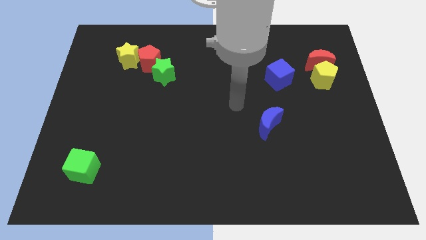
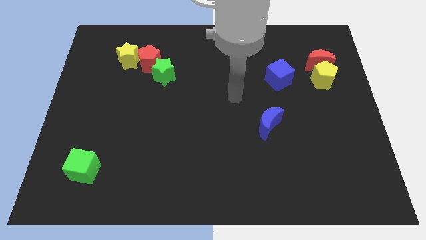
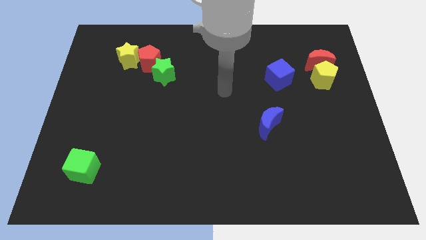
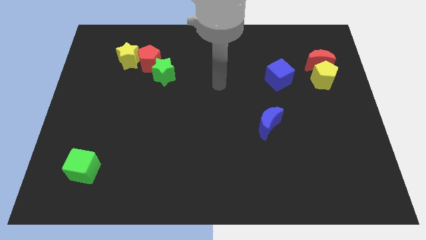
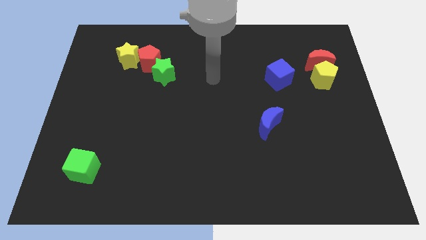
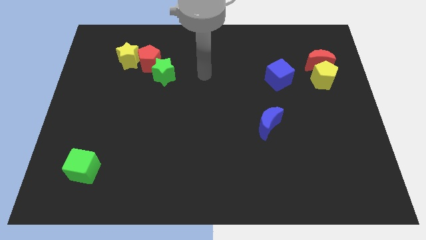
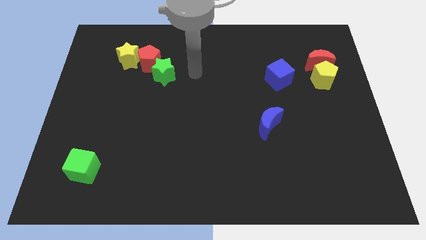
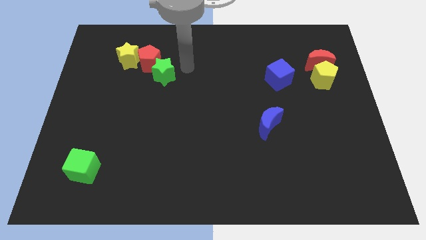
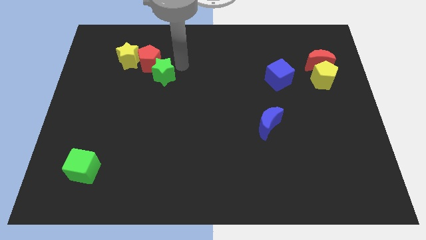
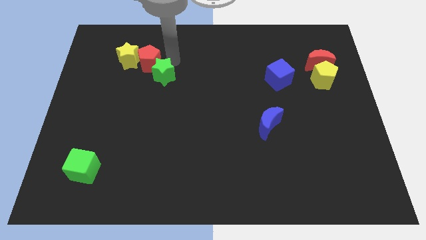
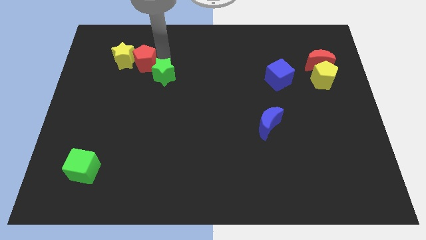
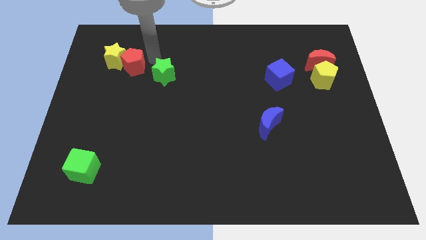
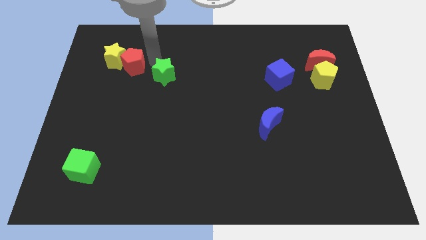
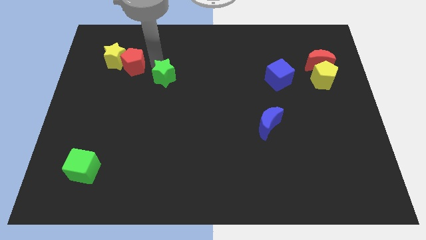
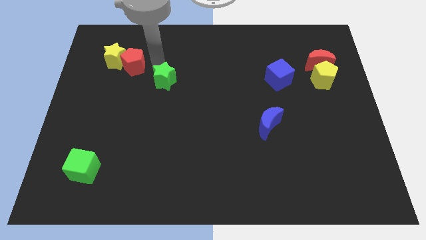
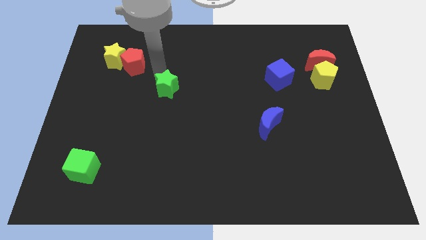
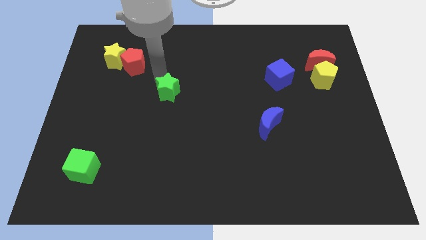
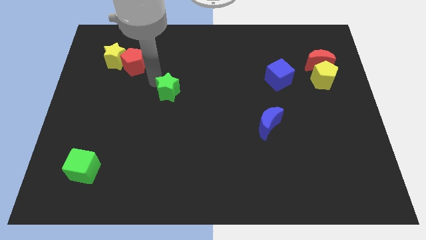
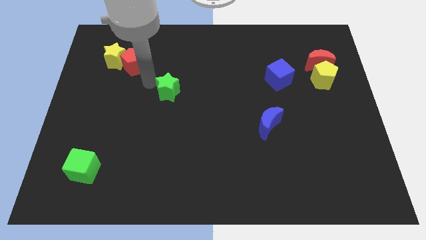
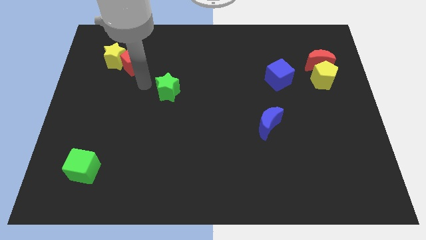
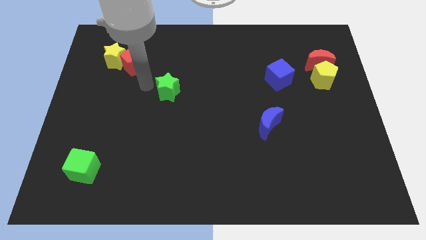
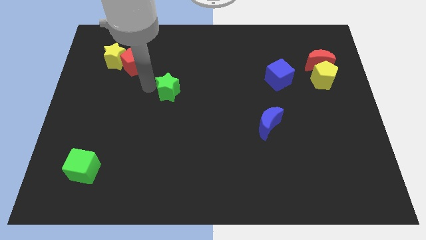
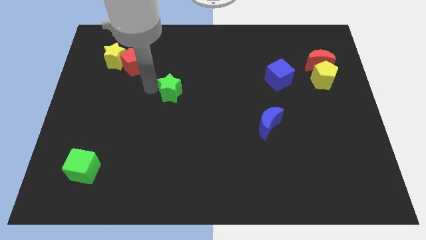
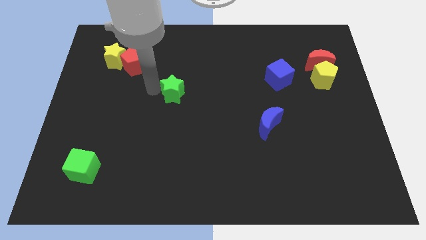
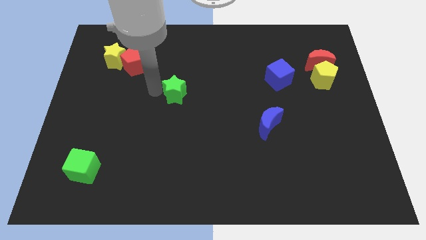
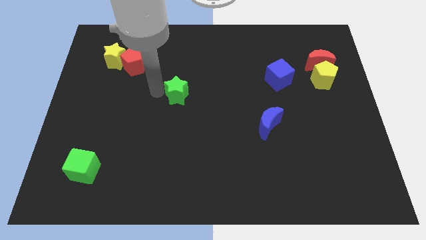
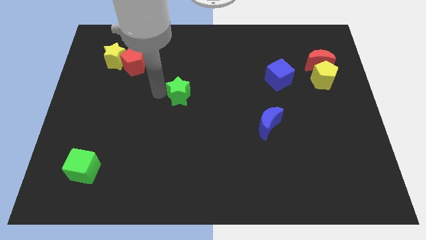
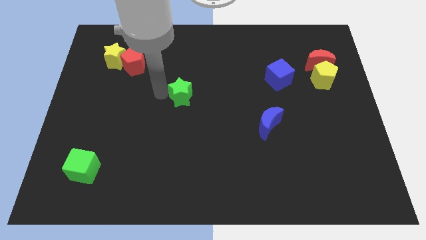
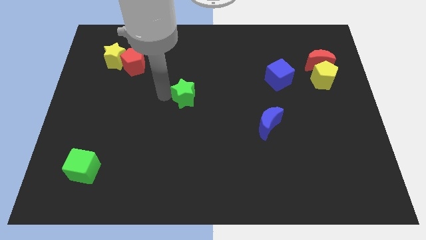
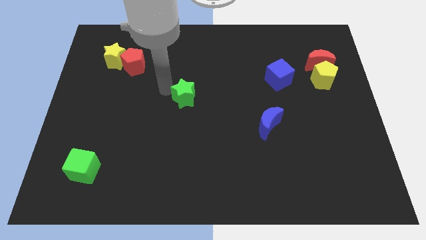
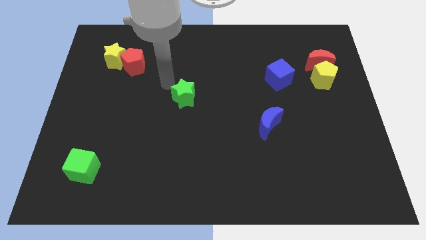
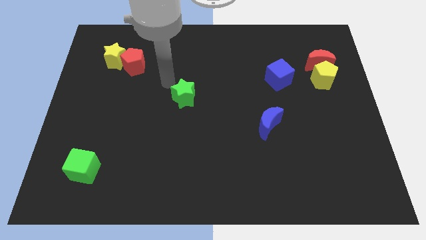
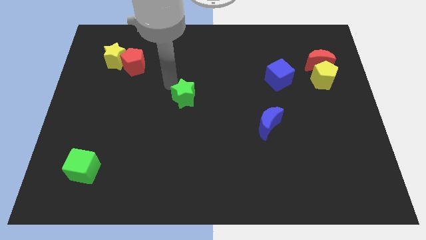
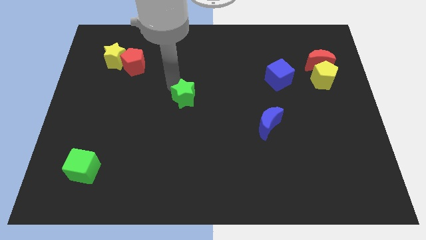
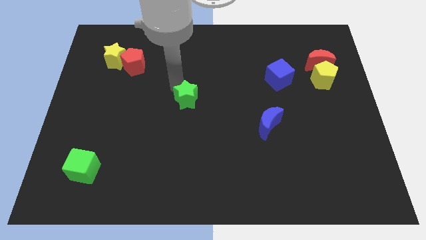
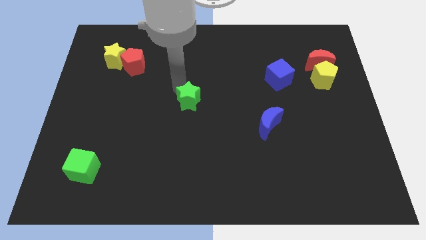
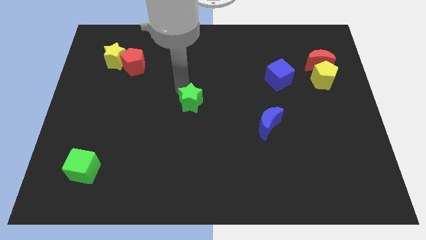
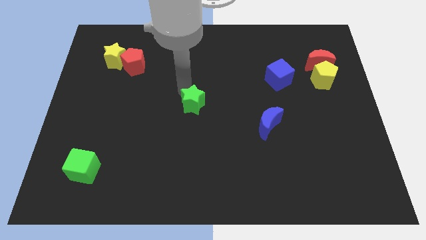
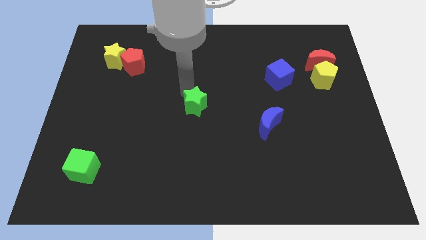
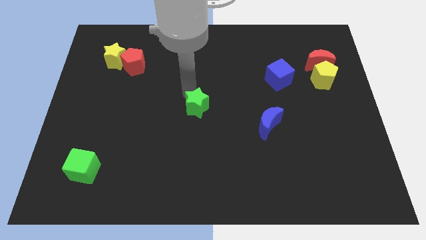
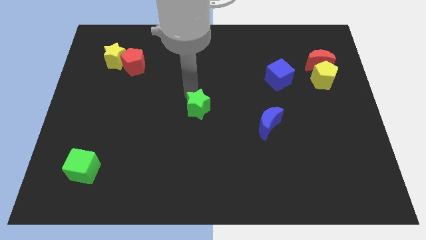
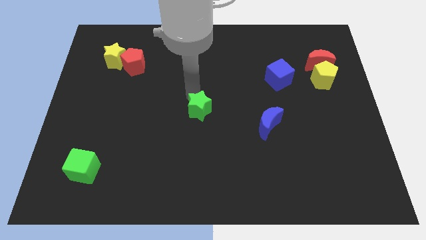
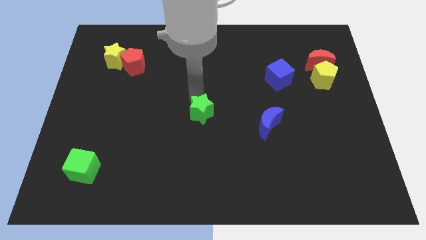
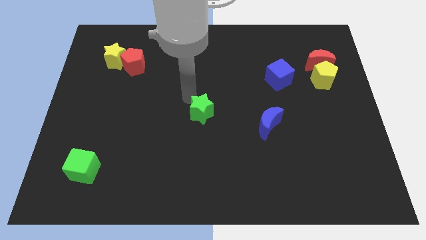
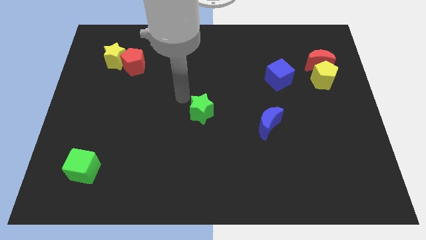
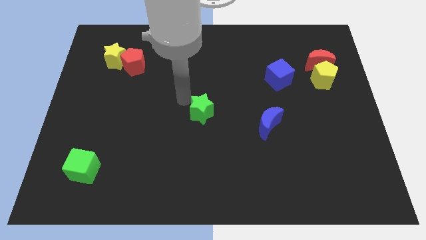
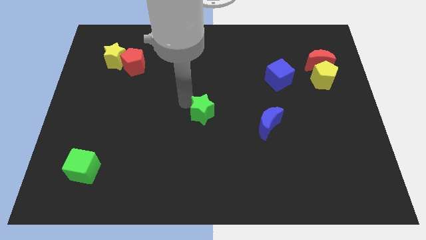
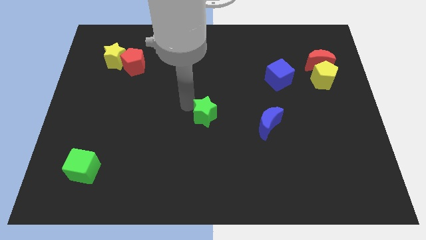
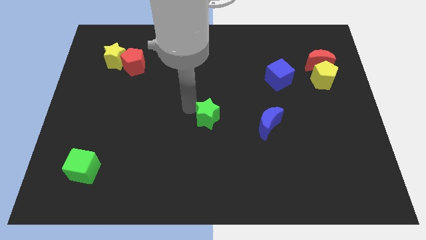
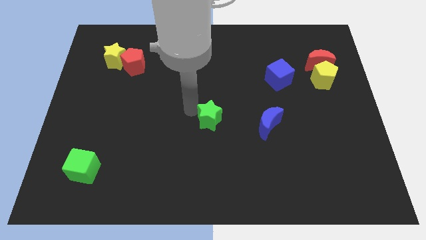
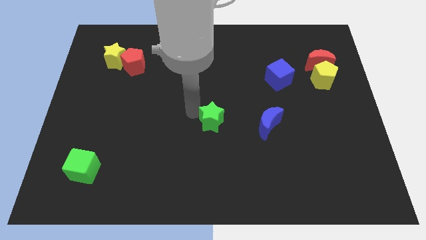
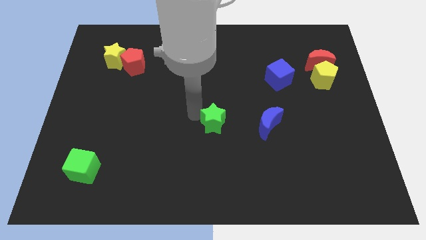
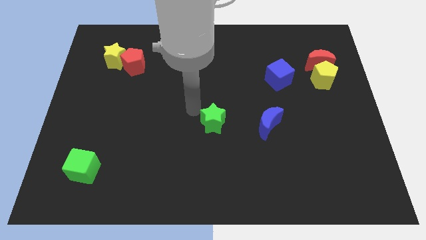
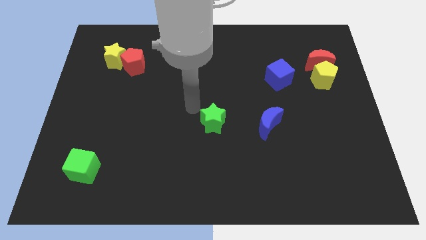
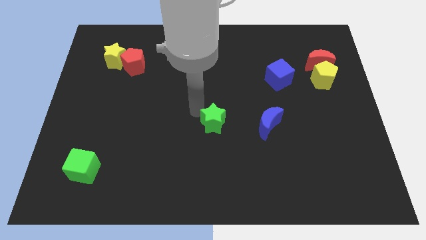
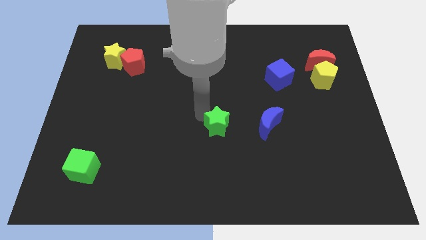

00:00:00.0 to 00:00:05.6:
move the green star diagonally down and to the right

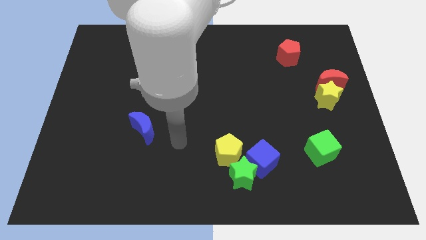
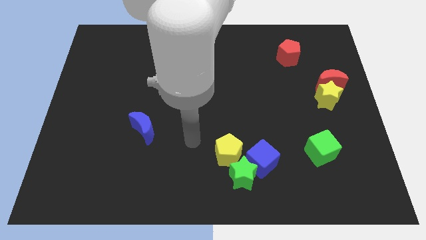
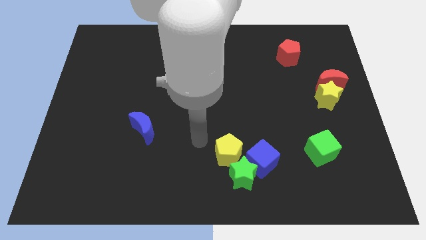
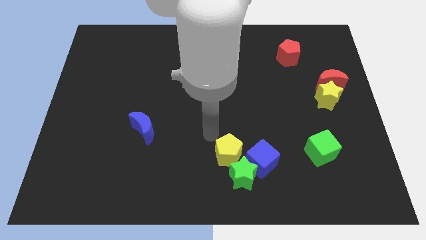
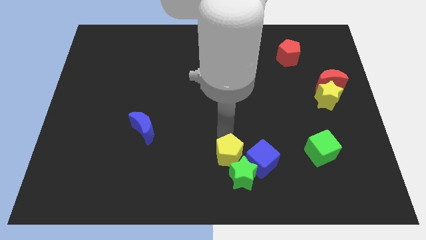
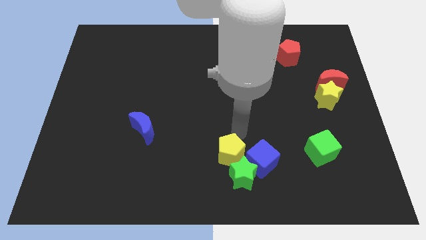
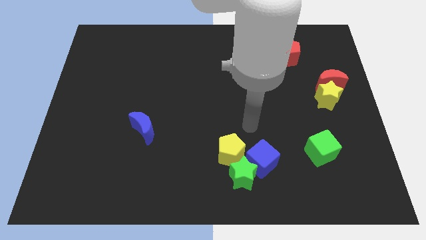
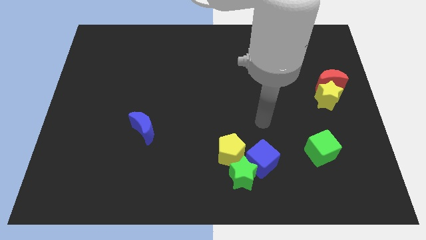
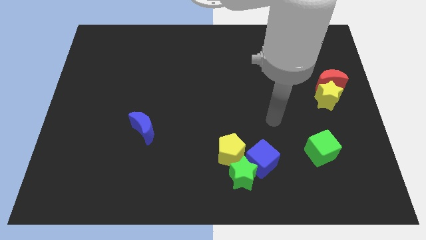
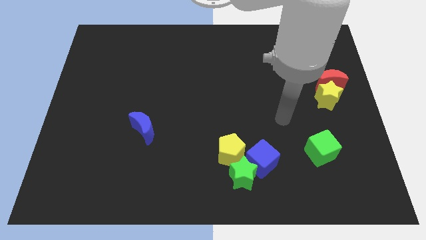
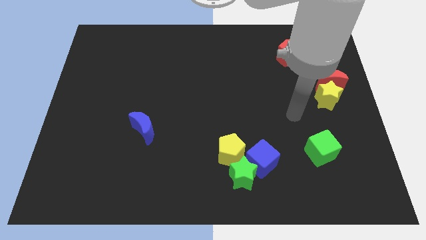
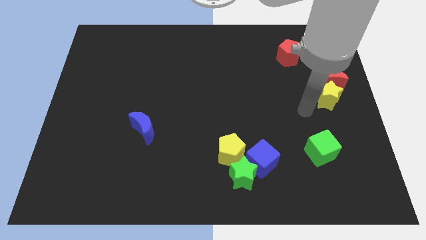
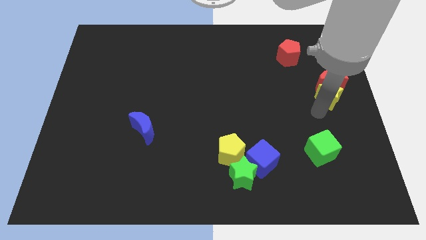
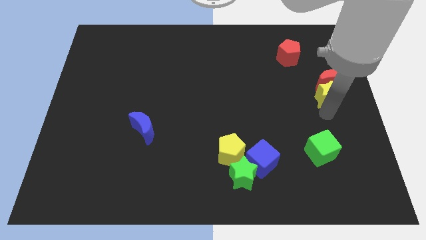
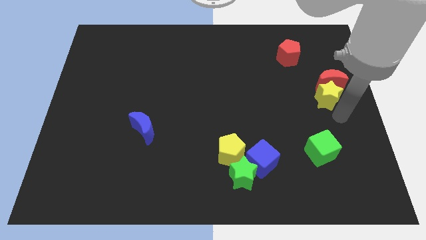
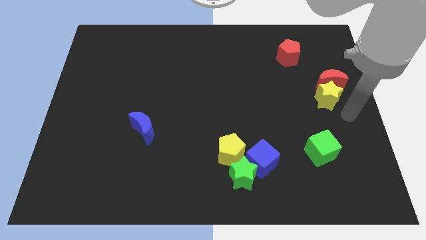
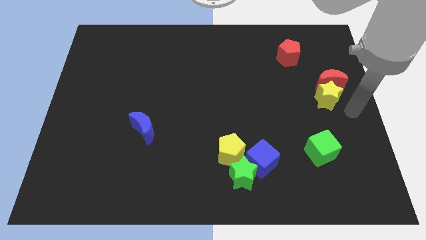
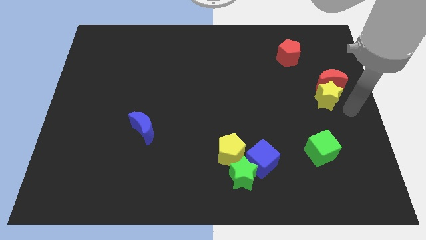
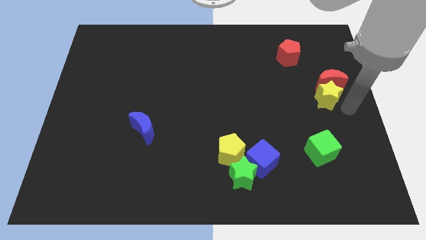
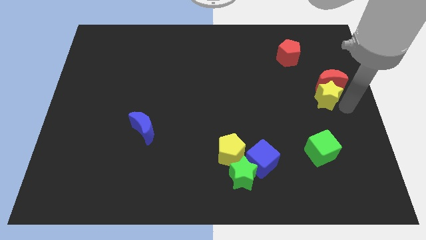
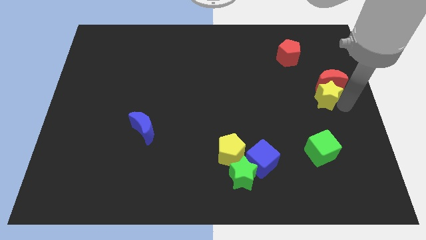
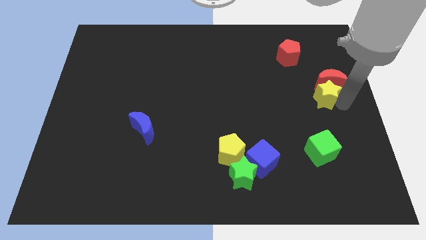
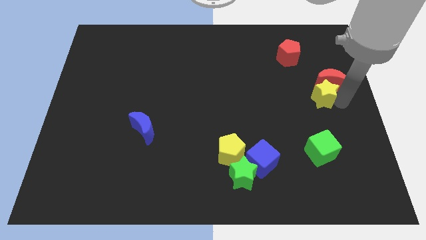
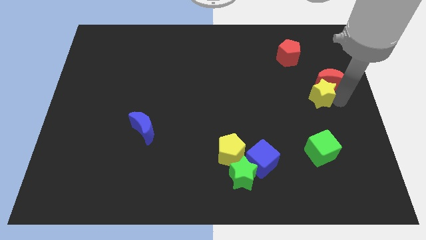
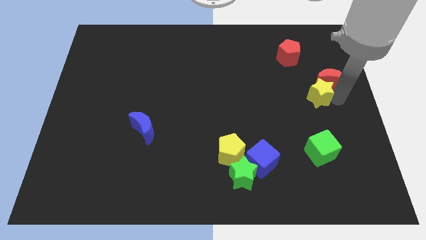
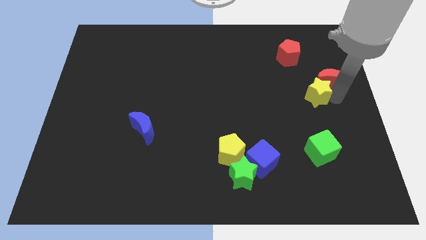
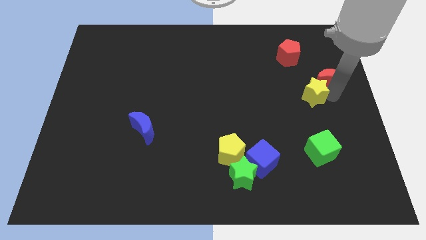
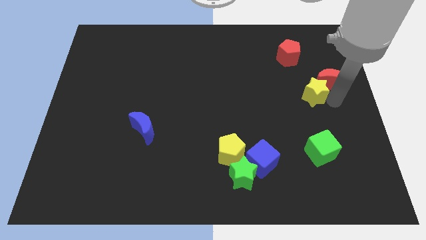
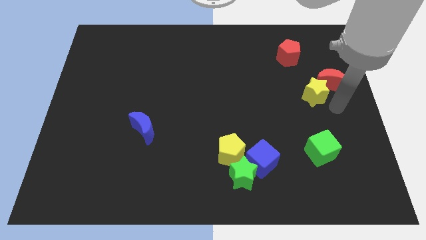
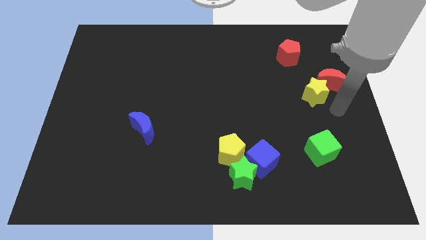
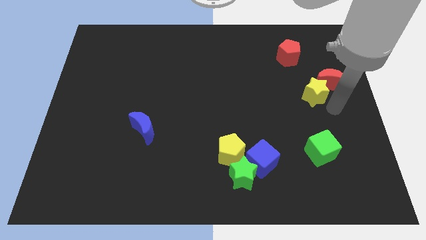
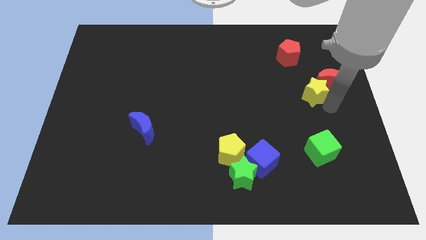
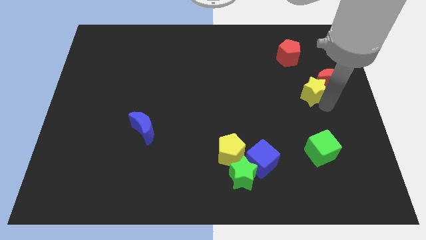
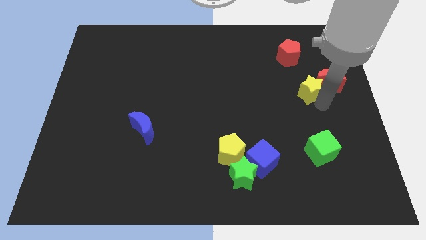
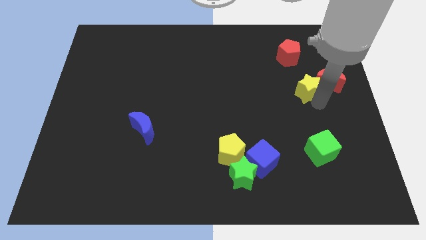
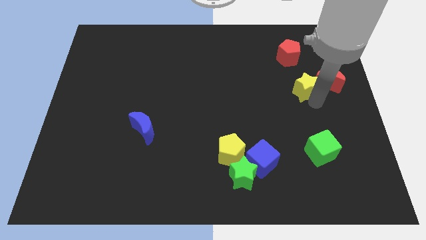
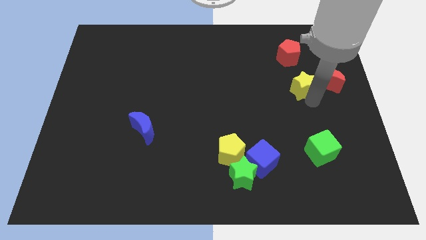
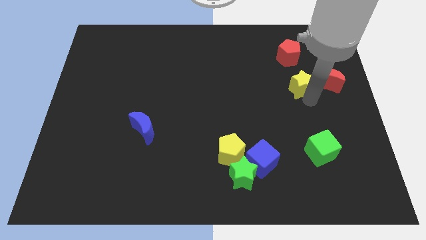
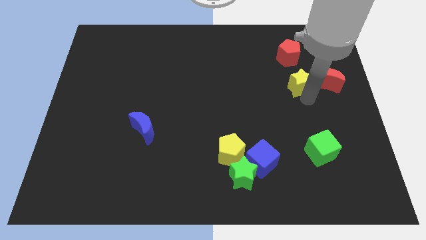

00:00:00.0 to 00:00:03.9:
slide the yellow star diagonally up and to the left a bit
